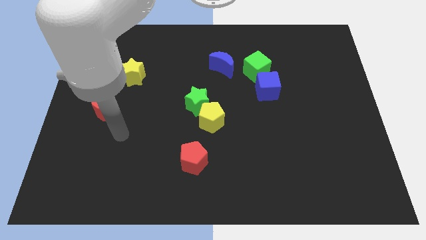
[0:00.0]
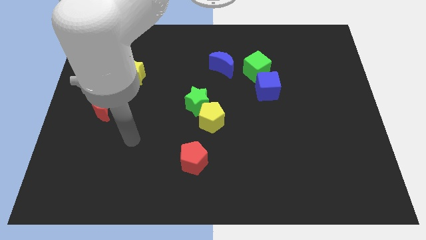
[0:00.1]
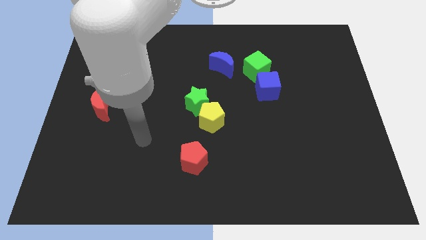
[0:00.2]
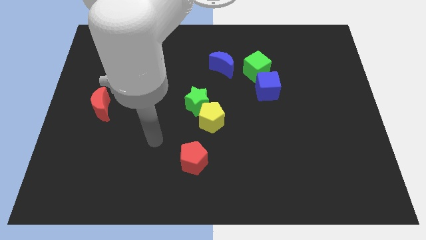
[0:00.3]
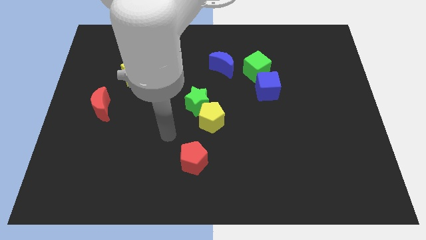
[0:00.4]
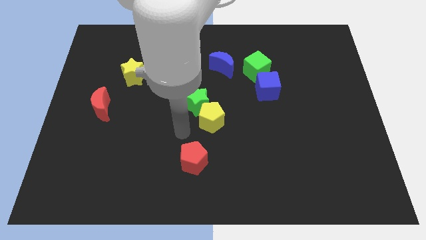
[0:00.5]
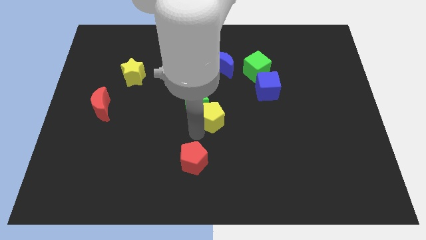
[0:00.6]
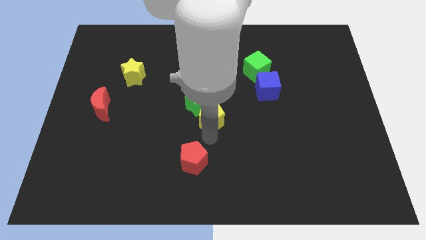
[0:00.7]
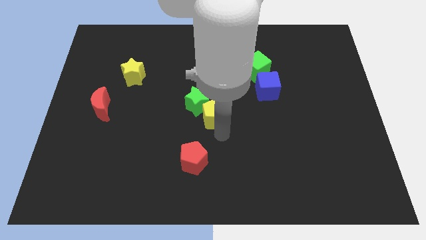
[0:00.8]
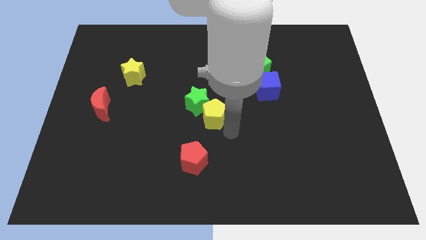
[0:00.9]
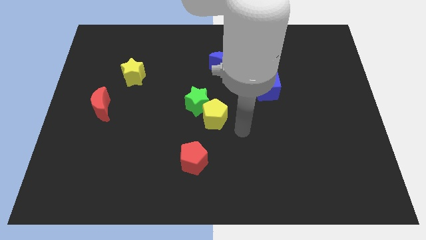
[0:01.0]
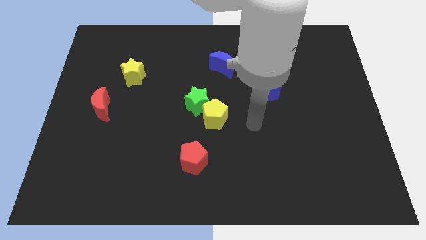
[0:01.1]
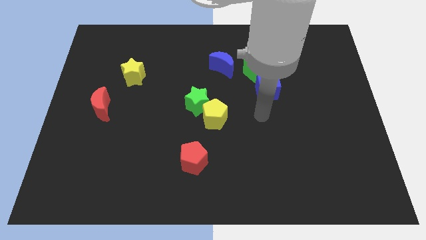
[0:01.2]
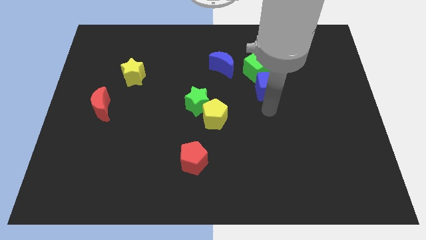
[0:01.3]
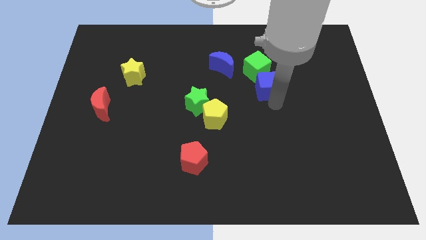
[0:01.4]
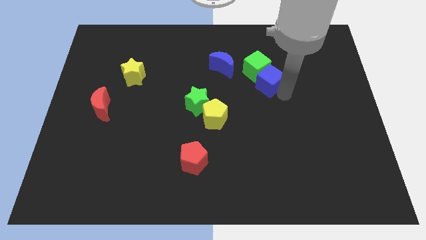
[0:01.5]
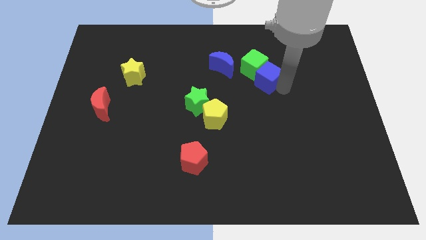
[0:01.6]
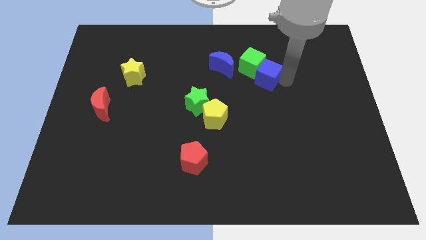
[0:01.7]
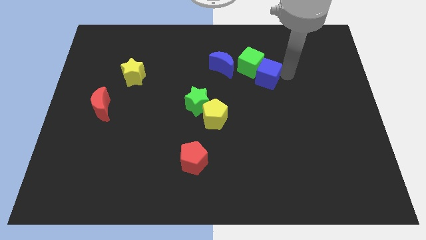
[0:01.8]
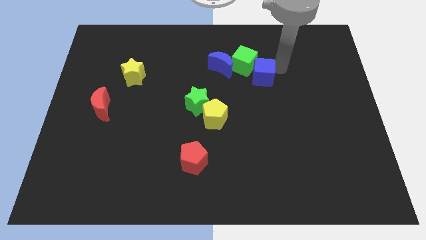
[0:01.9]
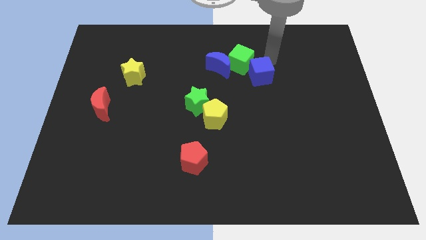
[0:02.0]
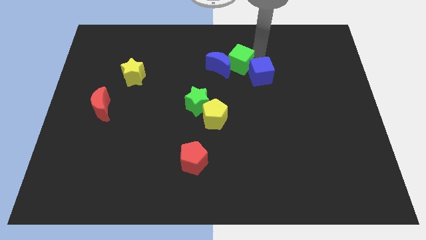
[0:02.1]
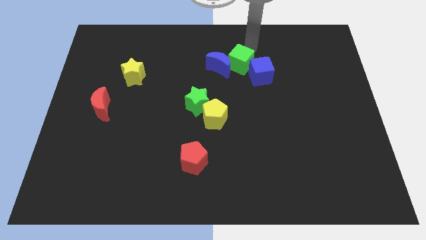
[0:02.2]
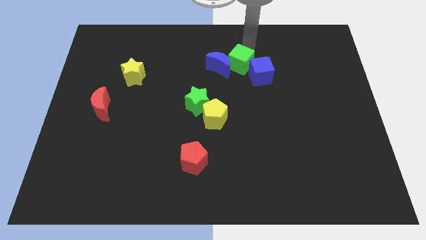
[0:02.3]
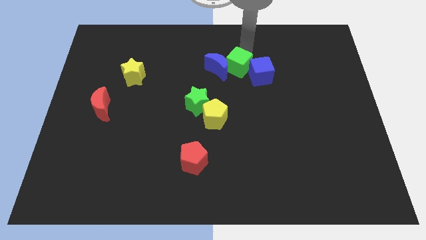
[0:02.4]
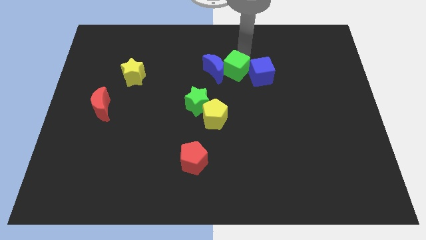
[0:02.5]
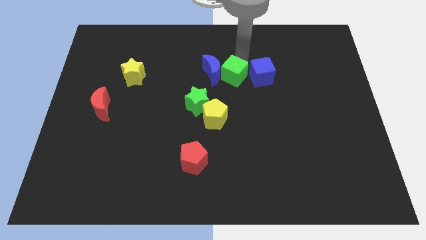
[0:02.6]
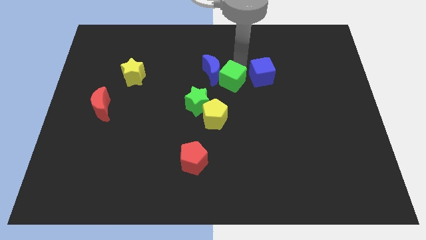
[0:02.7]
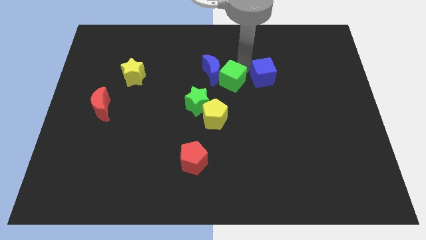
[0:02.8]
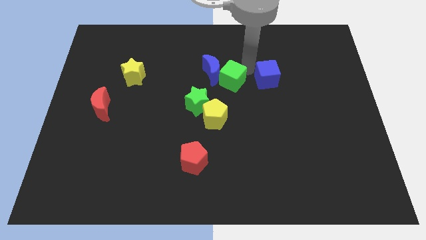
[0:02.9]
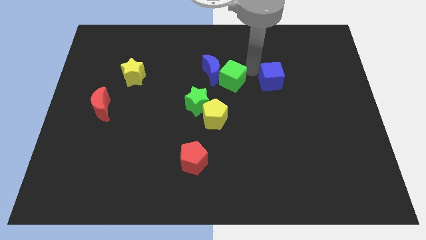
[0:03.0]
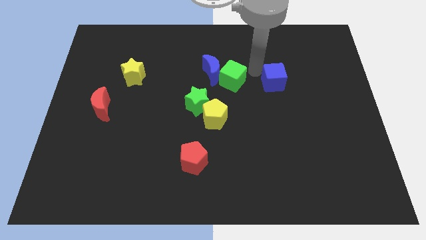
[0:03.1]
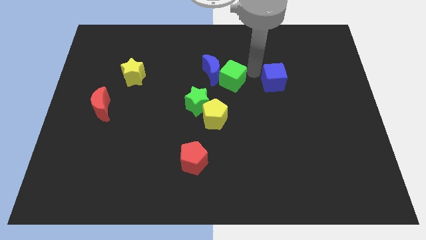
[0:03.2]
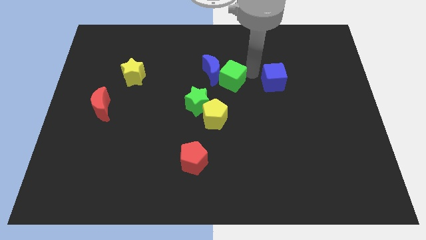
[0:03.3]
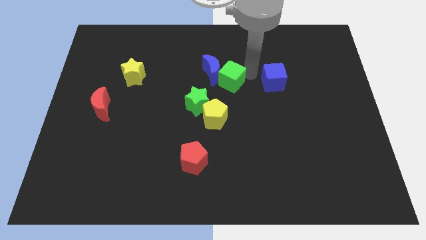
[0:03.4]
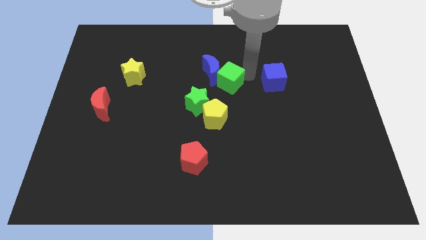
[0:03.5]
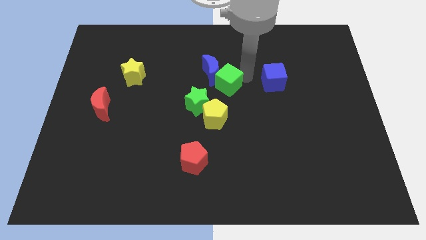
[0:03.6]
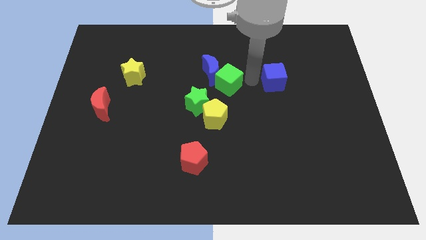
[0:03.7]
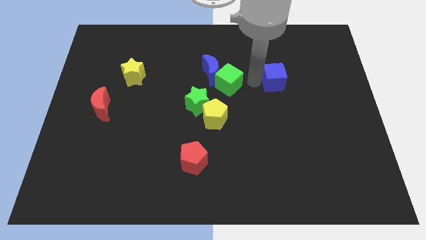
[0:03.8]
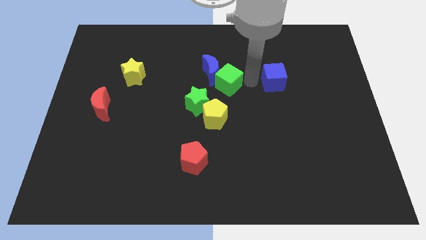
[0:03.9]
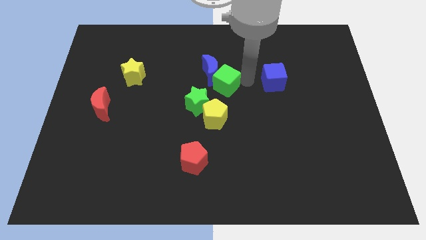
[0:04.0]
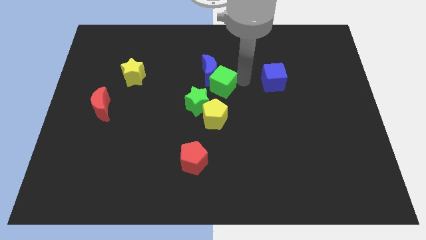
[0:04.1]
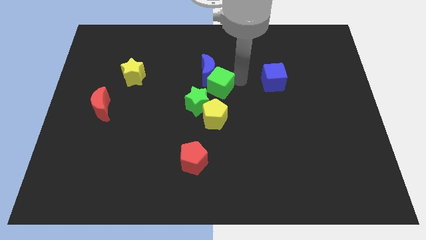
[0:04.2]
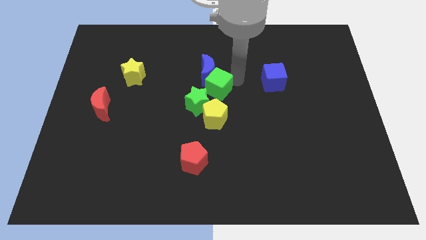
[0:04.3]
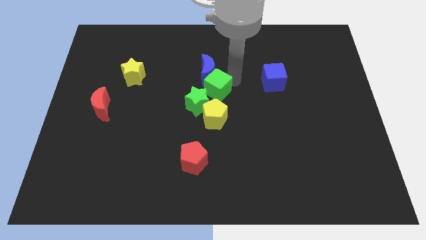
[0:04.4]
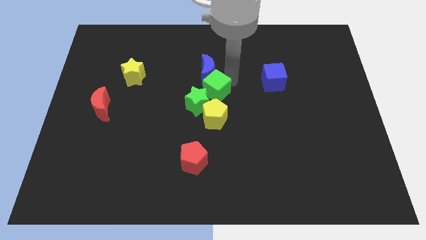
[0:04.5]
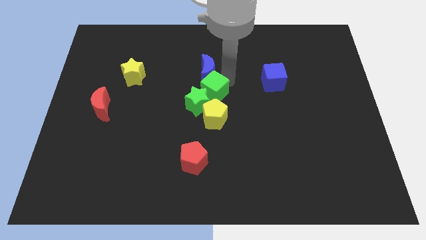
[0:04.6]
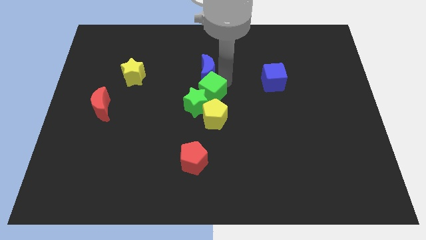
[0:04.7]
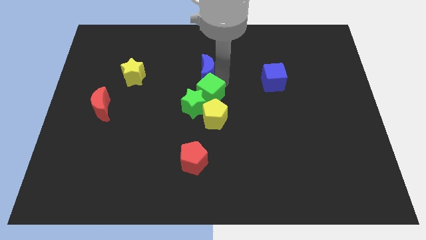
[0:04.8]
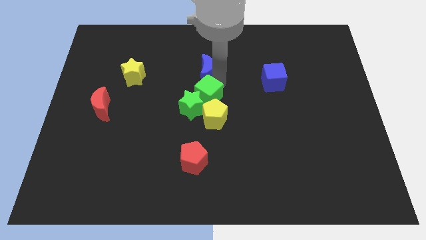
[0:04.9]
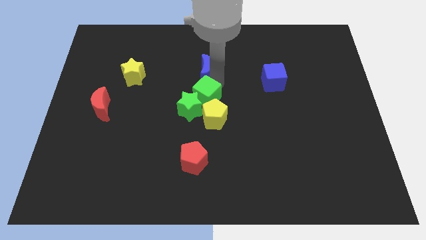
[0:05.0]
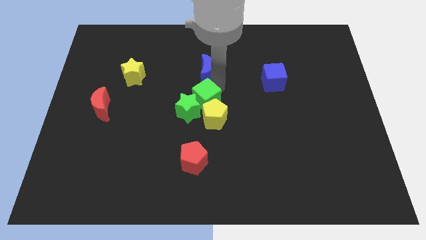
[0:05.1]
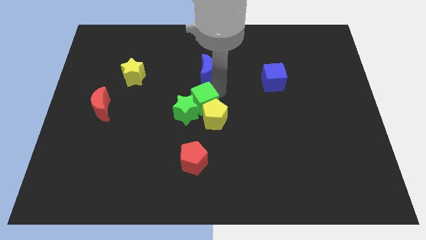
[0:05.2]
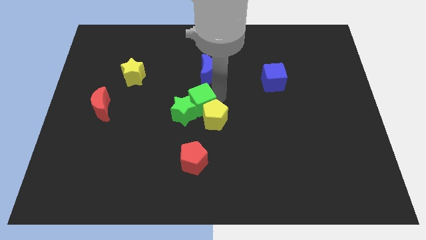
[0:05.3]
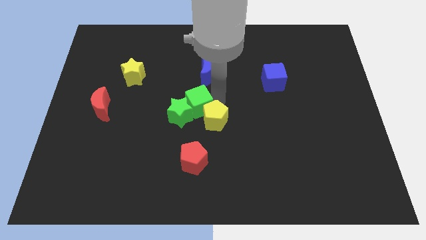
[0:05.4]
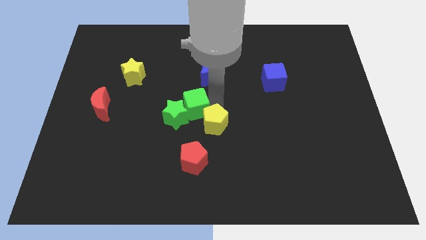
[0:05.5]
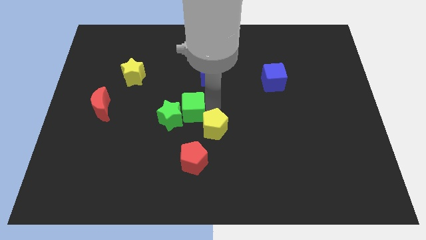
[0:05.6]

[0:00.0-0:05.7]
move the green cube downwards and to the left

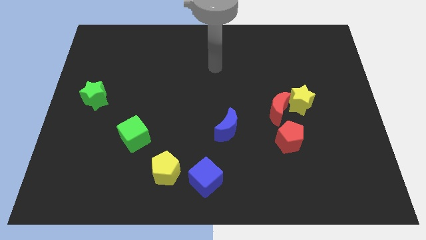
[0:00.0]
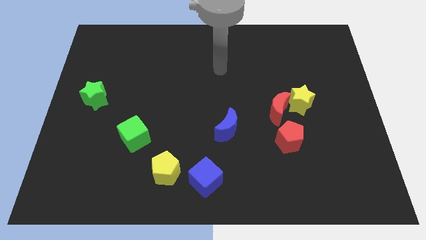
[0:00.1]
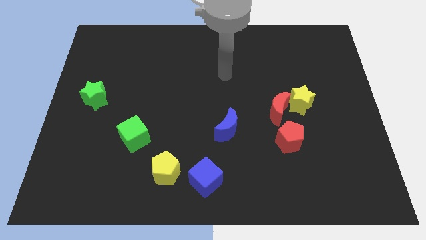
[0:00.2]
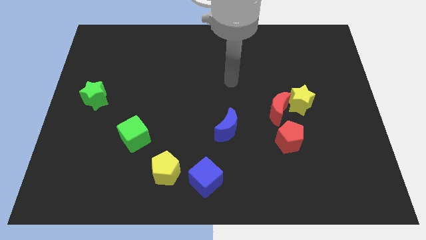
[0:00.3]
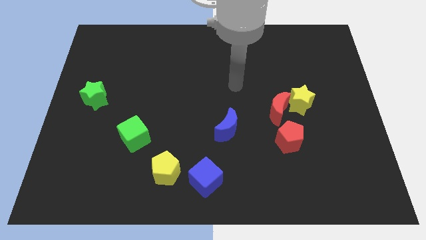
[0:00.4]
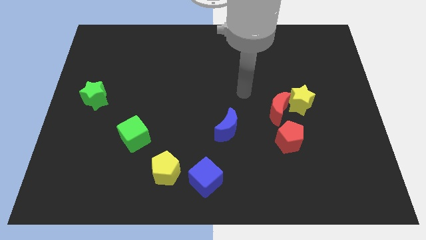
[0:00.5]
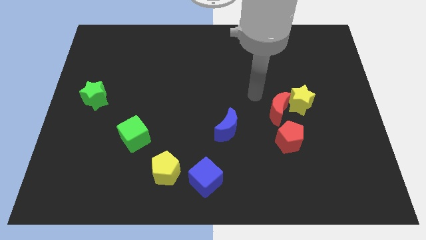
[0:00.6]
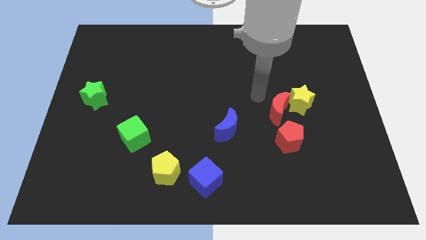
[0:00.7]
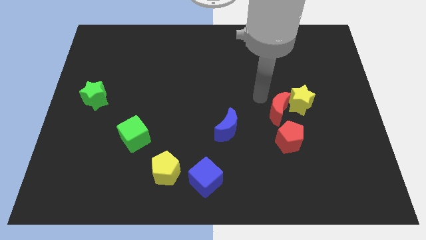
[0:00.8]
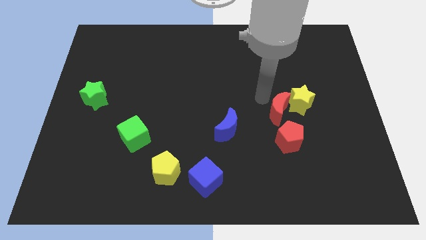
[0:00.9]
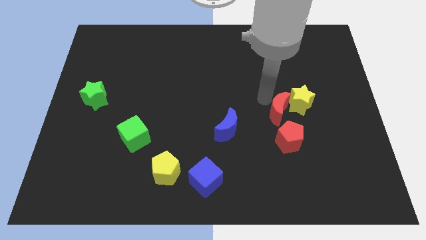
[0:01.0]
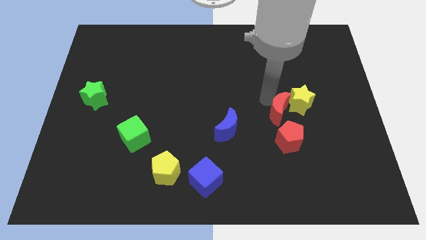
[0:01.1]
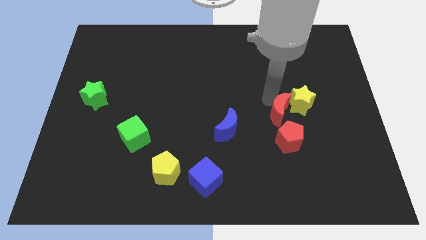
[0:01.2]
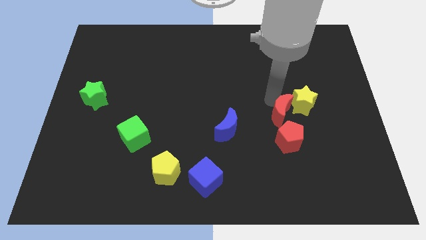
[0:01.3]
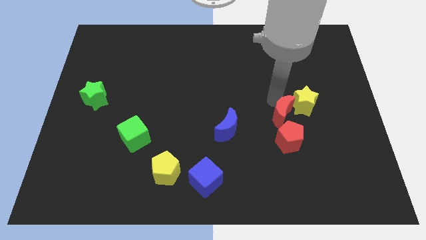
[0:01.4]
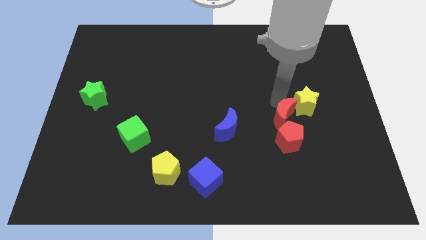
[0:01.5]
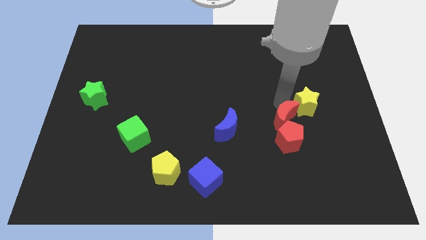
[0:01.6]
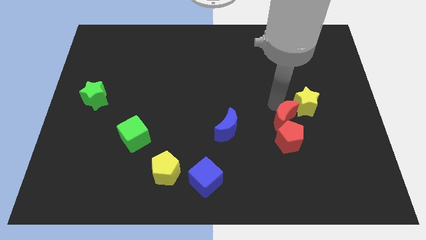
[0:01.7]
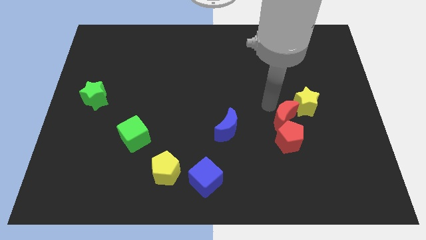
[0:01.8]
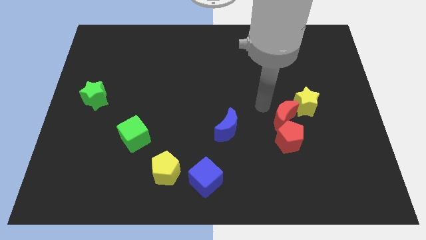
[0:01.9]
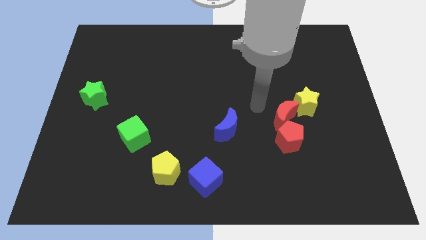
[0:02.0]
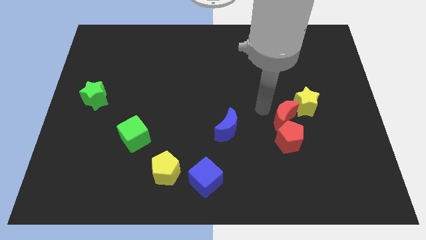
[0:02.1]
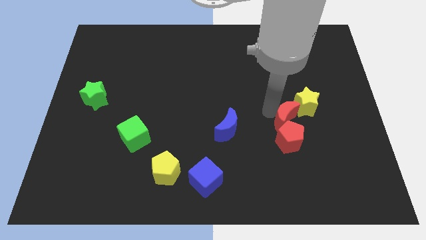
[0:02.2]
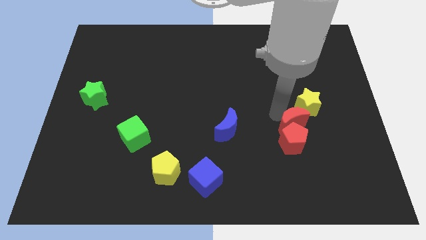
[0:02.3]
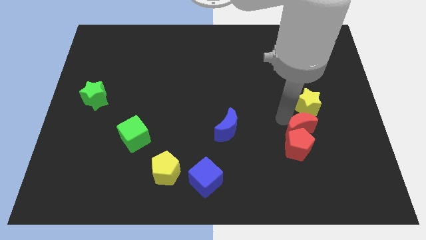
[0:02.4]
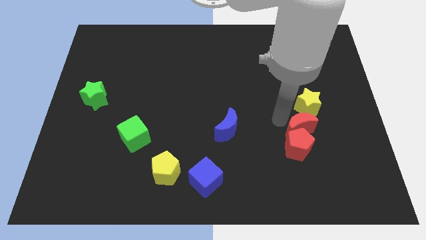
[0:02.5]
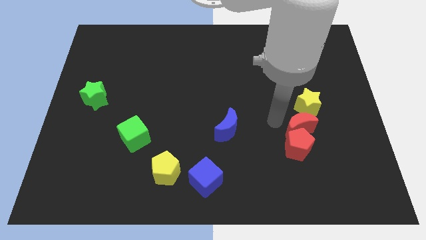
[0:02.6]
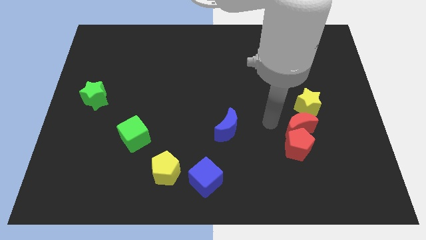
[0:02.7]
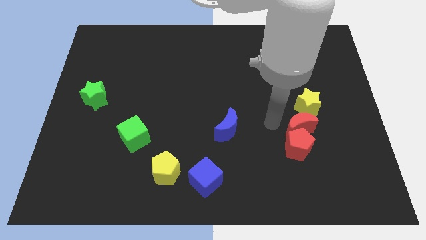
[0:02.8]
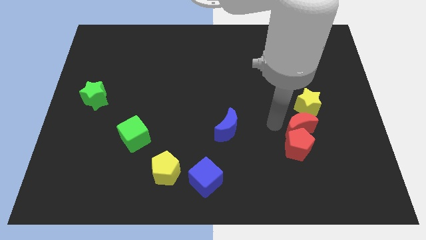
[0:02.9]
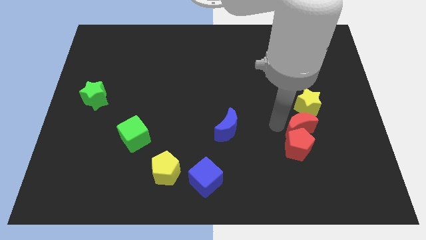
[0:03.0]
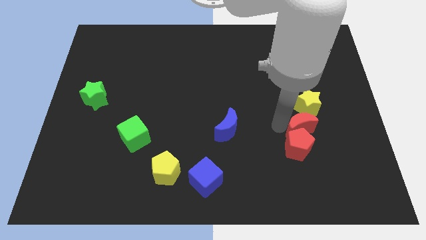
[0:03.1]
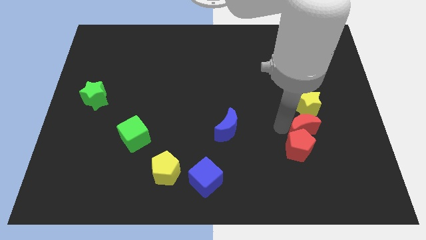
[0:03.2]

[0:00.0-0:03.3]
push the red moon somewhat downwards and to the right
